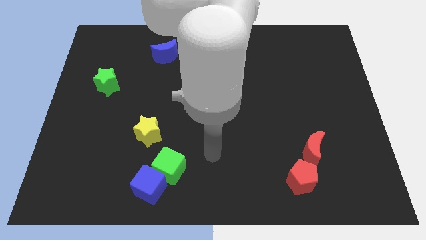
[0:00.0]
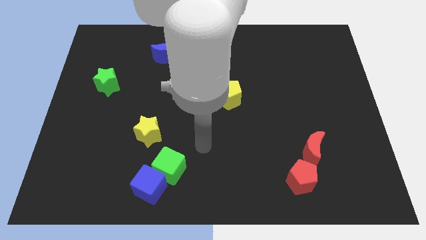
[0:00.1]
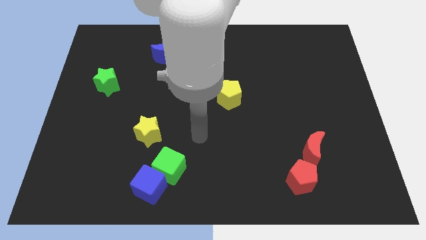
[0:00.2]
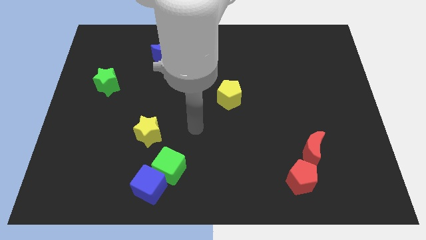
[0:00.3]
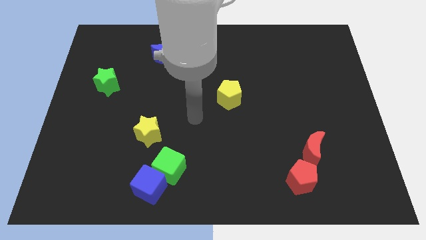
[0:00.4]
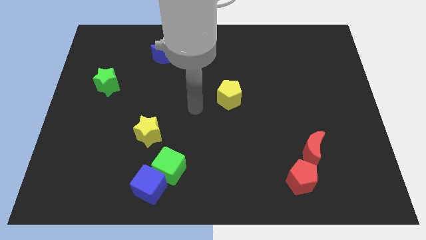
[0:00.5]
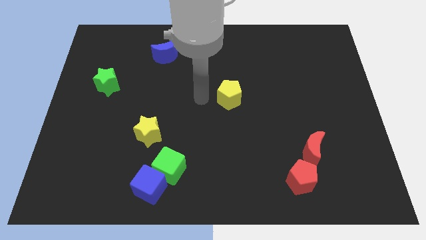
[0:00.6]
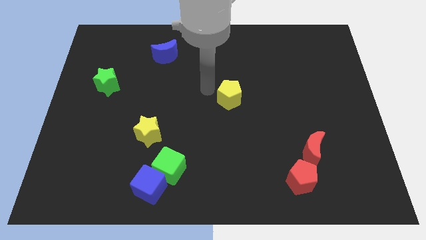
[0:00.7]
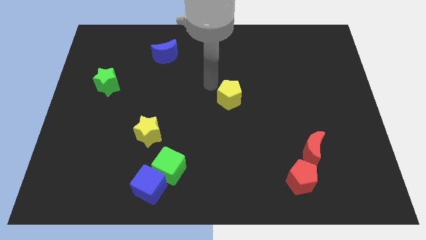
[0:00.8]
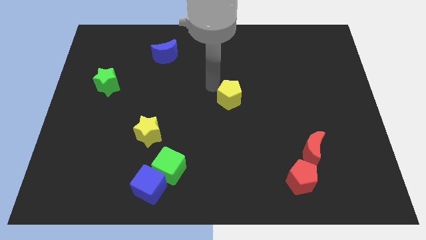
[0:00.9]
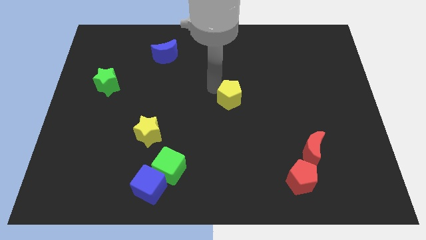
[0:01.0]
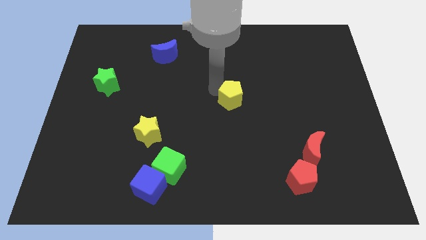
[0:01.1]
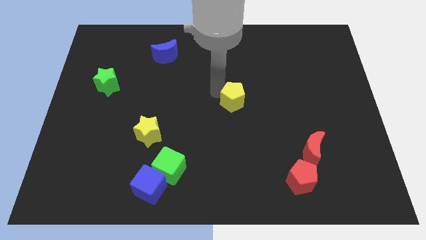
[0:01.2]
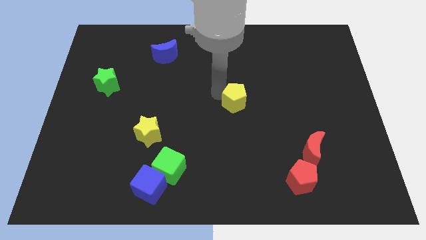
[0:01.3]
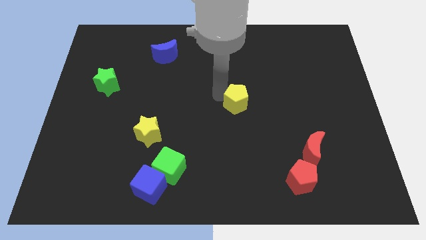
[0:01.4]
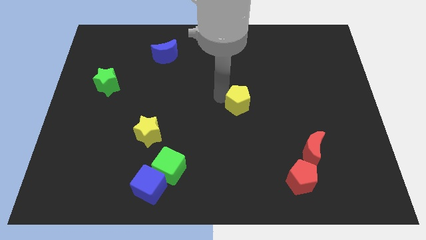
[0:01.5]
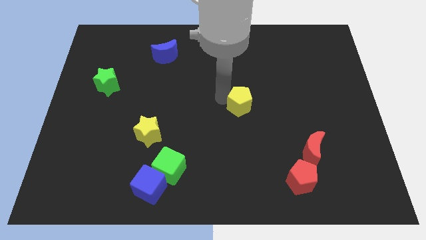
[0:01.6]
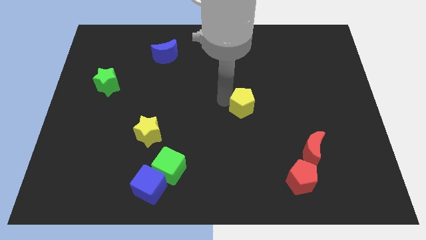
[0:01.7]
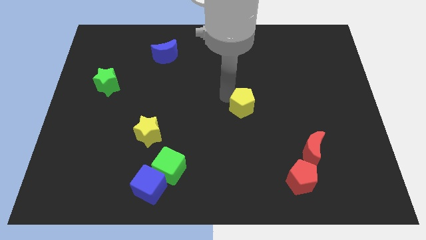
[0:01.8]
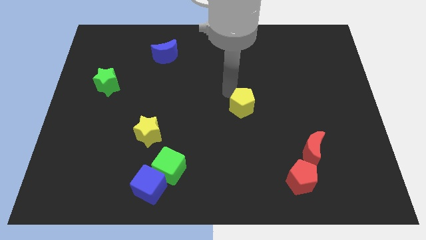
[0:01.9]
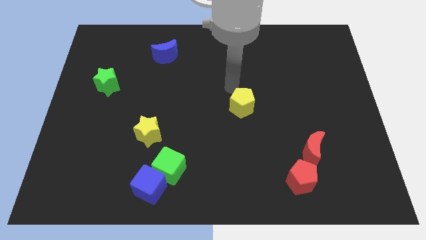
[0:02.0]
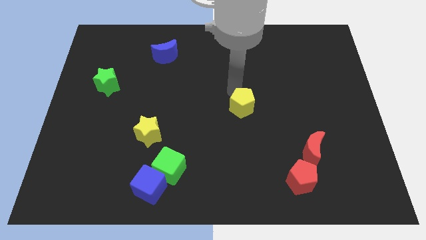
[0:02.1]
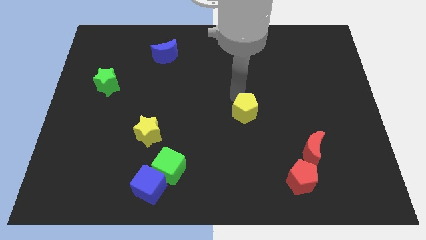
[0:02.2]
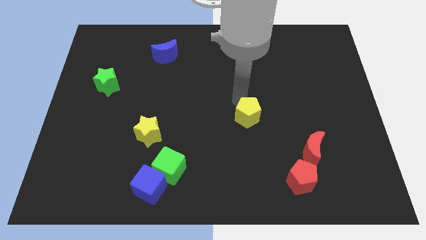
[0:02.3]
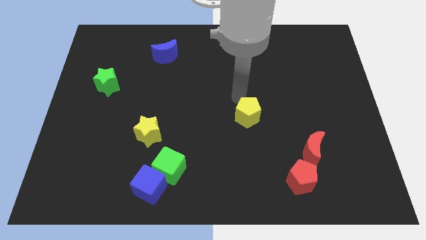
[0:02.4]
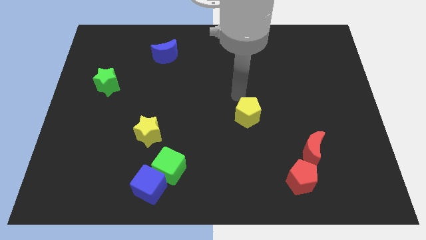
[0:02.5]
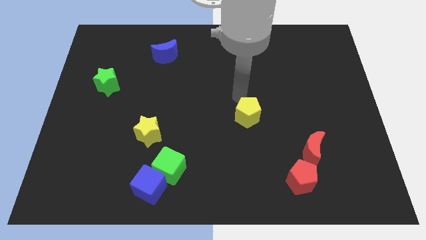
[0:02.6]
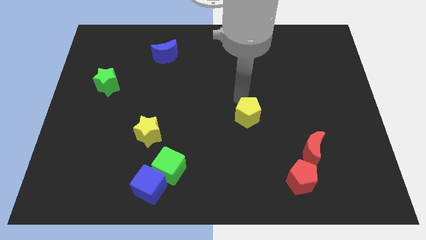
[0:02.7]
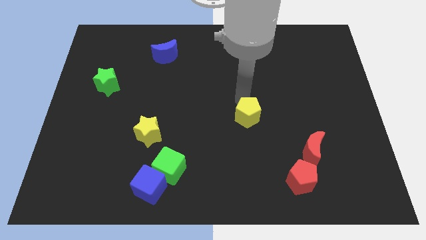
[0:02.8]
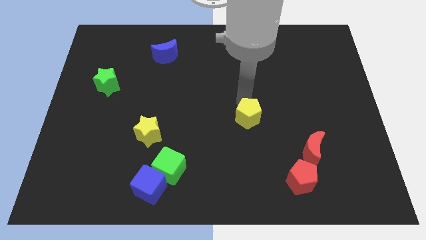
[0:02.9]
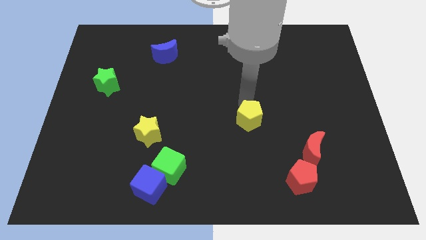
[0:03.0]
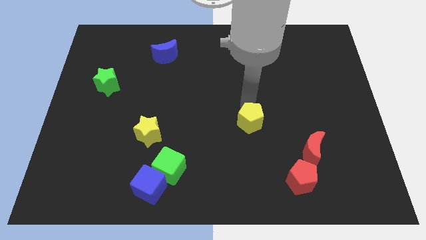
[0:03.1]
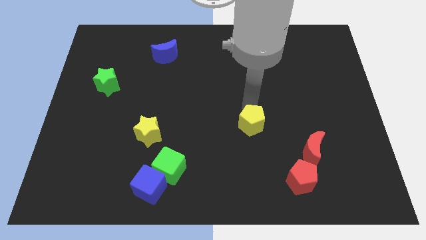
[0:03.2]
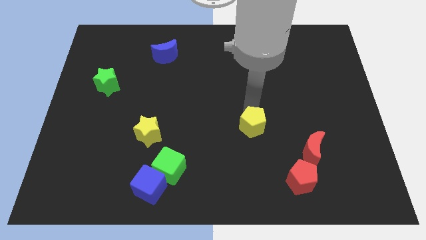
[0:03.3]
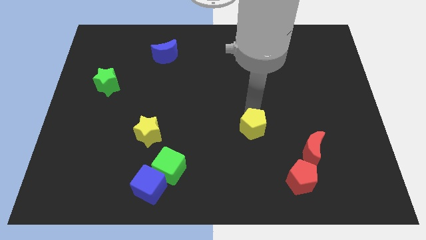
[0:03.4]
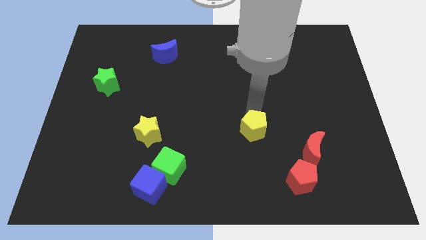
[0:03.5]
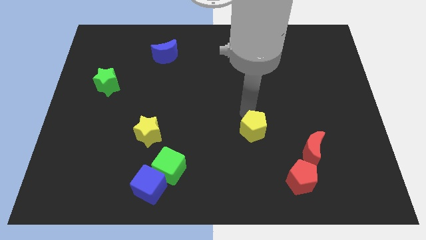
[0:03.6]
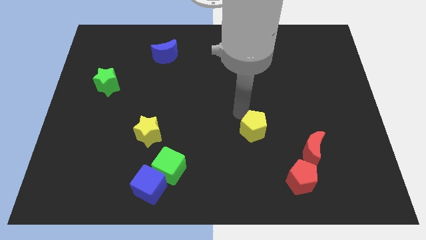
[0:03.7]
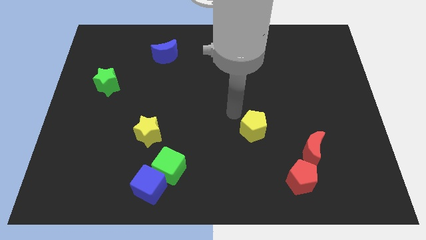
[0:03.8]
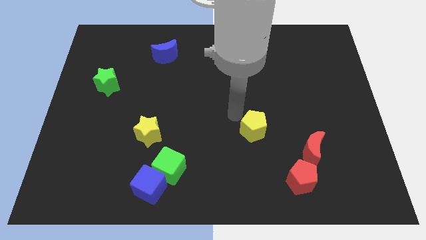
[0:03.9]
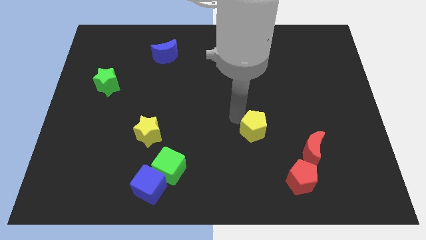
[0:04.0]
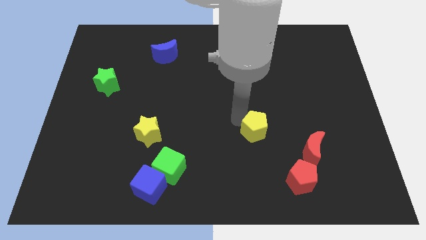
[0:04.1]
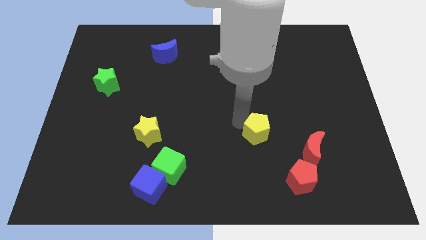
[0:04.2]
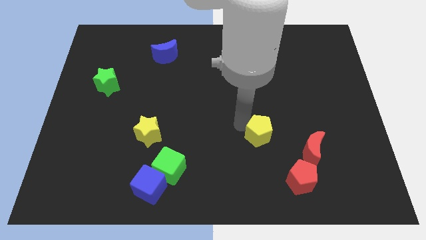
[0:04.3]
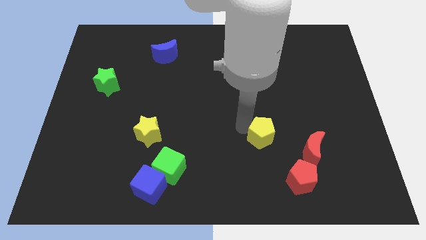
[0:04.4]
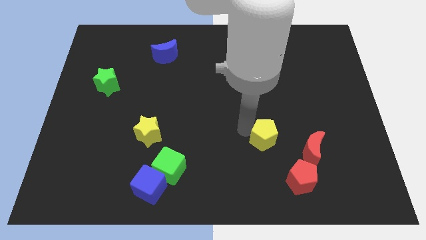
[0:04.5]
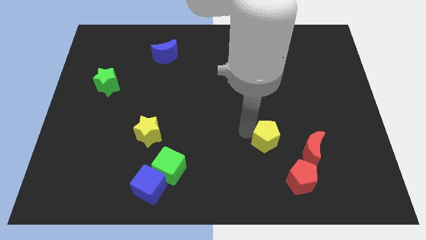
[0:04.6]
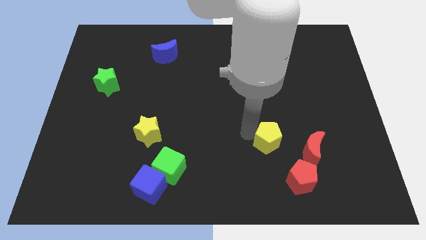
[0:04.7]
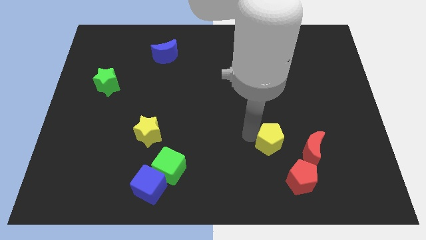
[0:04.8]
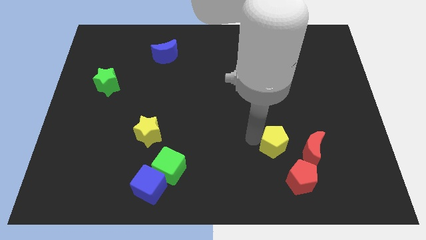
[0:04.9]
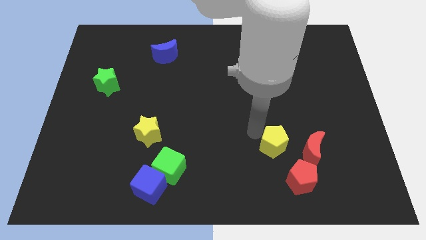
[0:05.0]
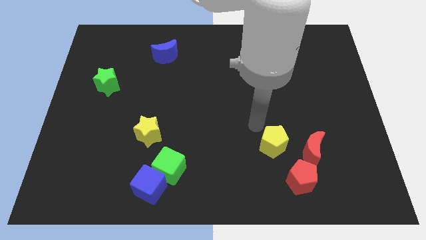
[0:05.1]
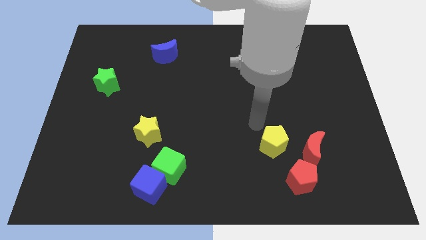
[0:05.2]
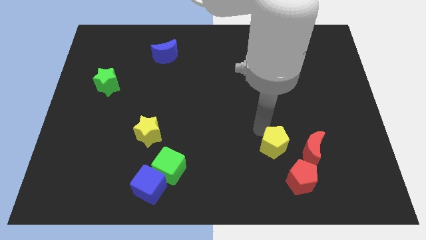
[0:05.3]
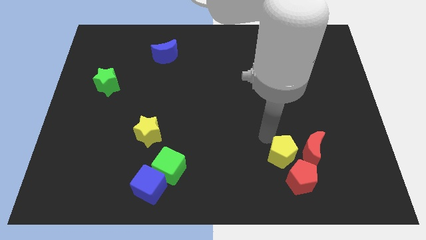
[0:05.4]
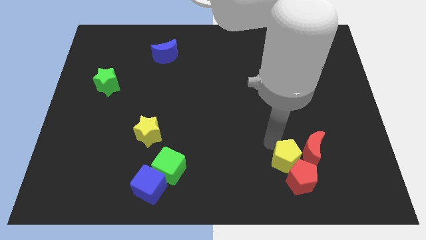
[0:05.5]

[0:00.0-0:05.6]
slide the yellow pentagon towards the red pentagon

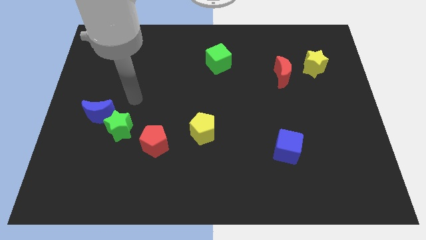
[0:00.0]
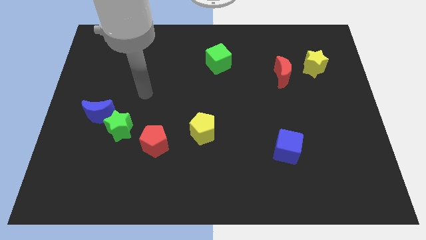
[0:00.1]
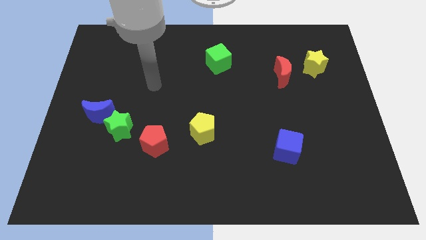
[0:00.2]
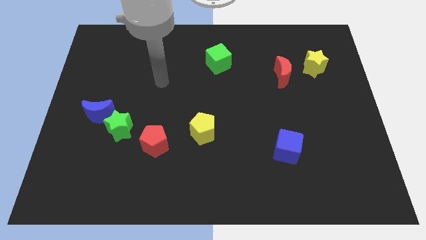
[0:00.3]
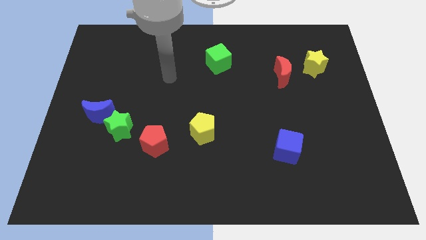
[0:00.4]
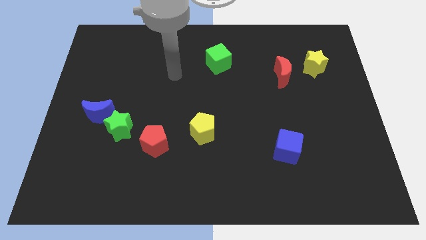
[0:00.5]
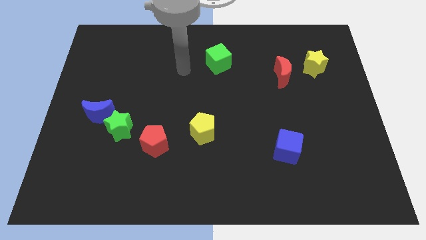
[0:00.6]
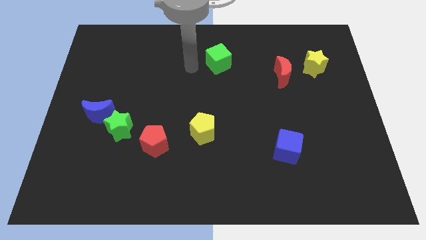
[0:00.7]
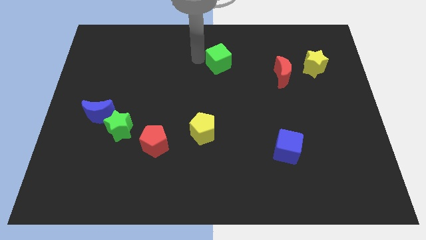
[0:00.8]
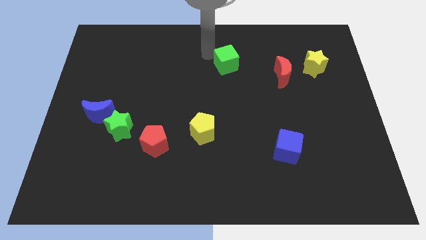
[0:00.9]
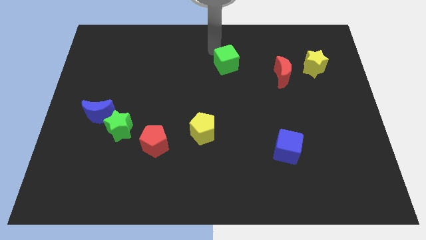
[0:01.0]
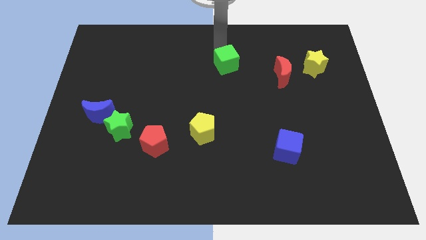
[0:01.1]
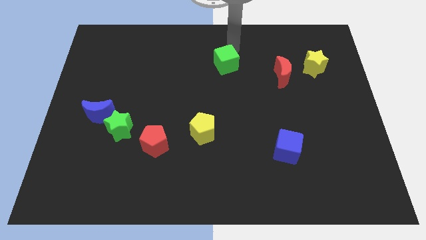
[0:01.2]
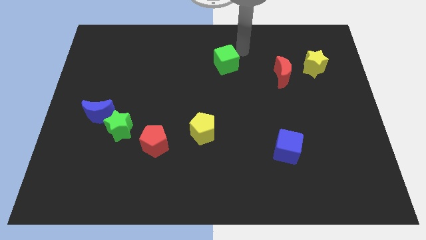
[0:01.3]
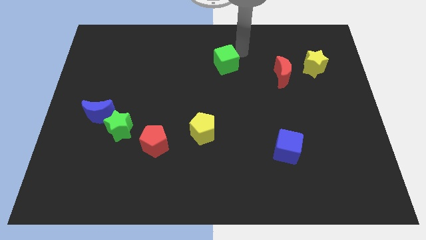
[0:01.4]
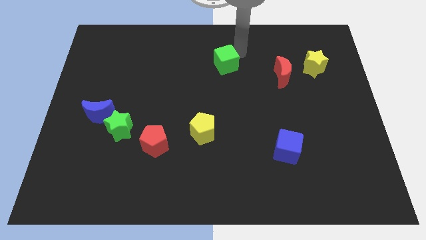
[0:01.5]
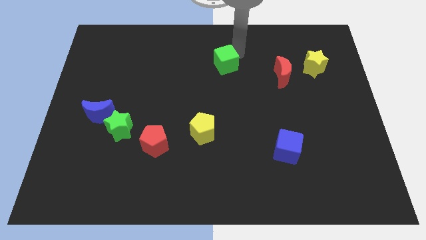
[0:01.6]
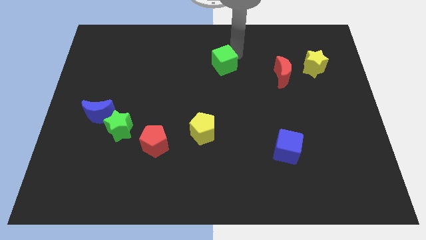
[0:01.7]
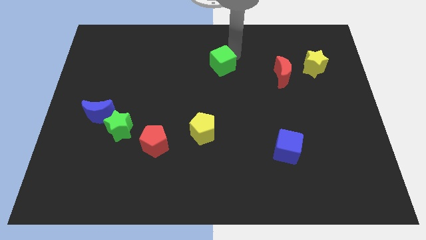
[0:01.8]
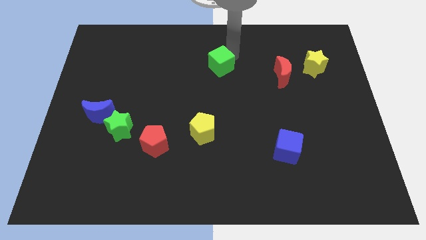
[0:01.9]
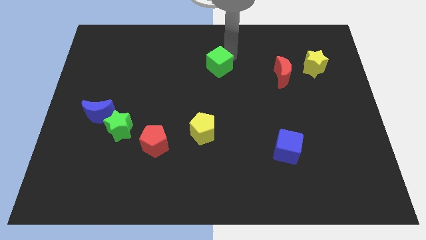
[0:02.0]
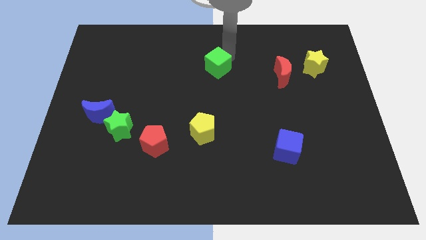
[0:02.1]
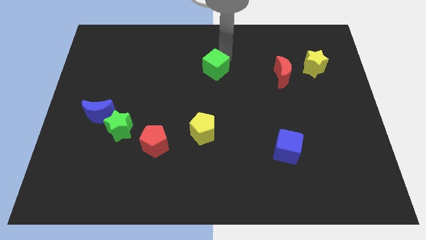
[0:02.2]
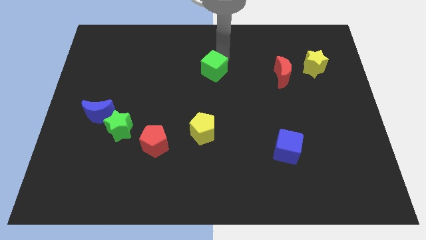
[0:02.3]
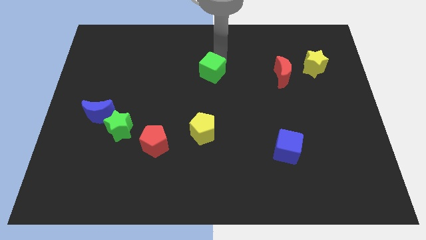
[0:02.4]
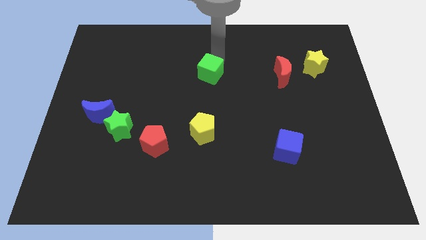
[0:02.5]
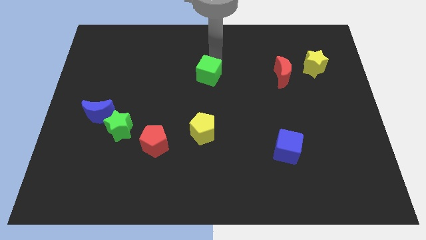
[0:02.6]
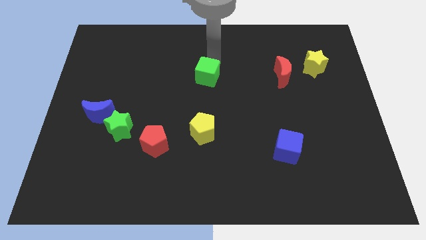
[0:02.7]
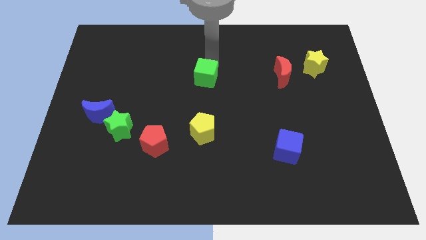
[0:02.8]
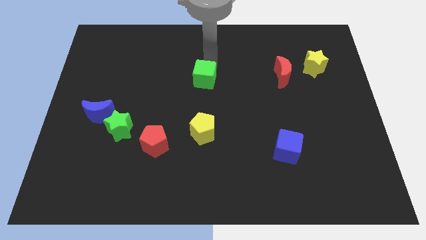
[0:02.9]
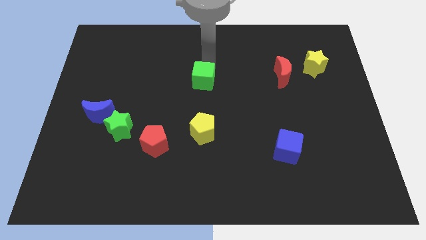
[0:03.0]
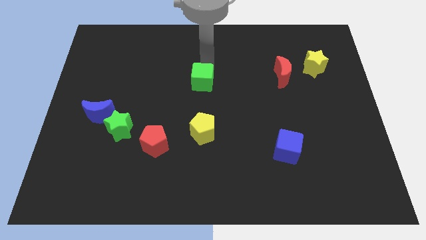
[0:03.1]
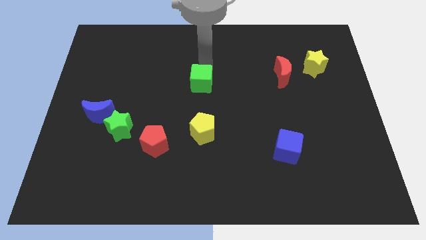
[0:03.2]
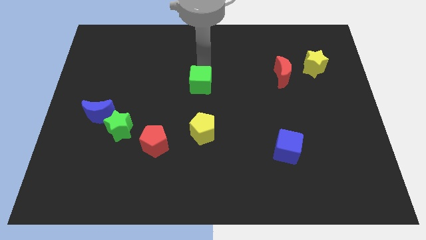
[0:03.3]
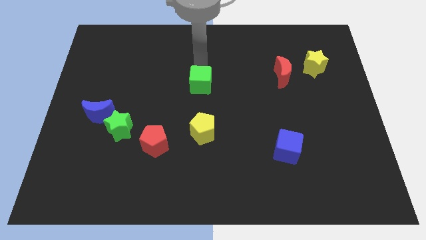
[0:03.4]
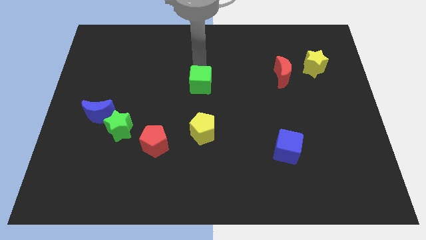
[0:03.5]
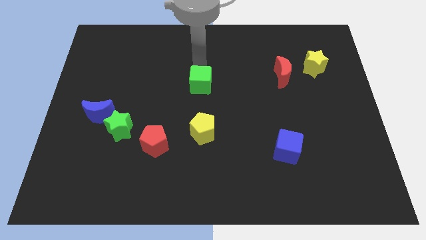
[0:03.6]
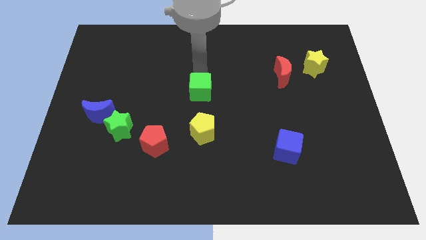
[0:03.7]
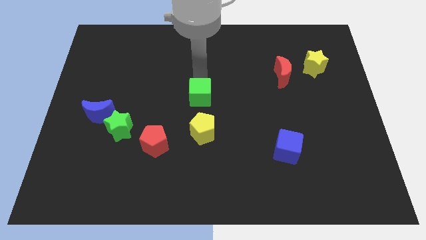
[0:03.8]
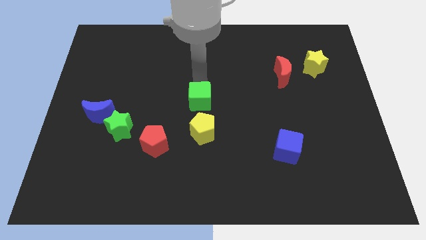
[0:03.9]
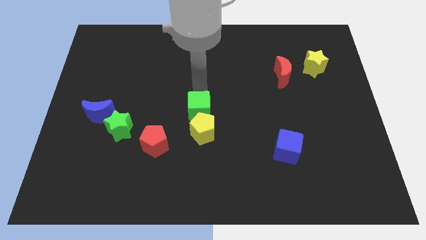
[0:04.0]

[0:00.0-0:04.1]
put the green cube towards the yellow pentagon
